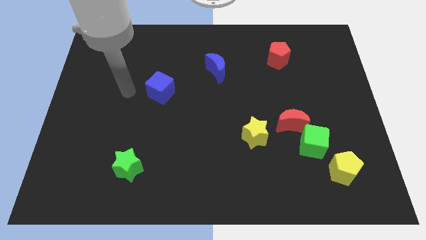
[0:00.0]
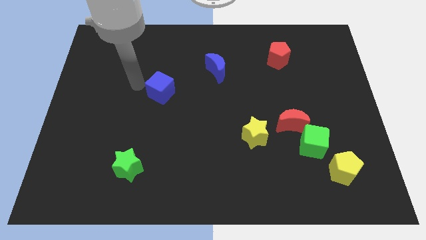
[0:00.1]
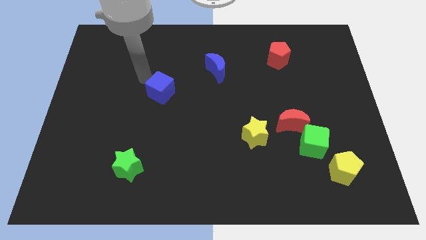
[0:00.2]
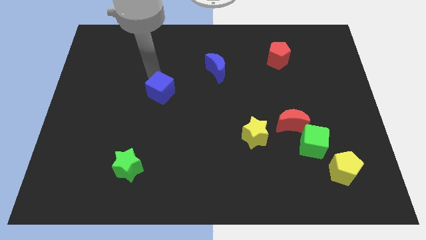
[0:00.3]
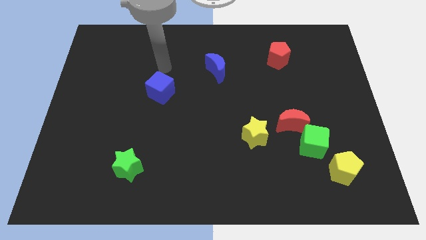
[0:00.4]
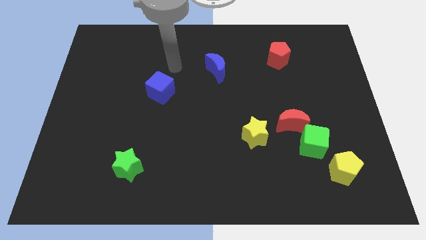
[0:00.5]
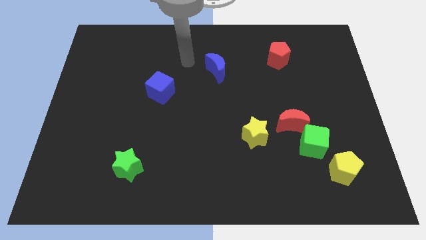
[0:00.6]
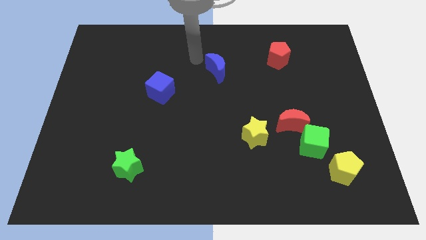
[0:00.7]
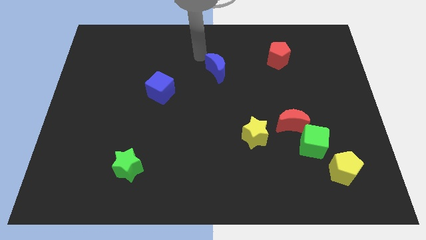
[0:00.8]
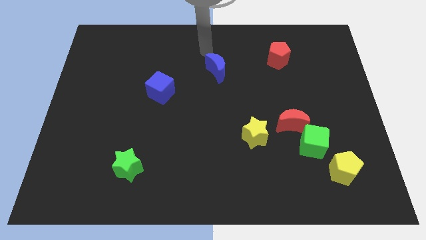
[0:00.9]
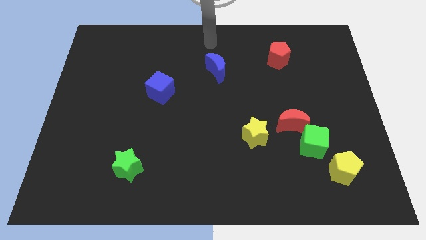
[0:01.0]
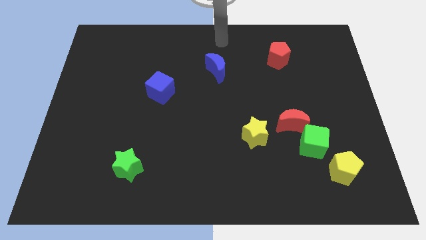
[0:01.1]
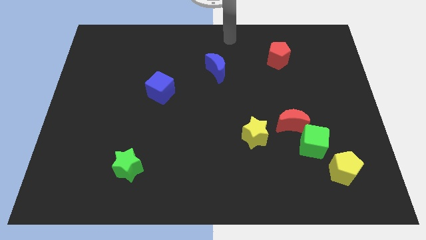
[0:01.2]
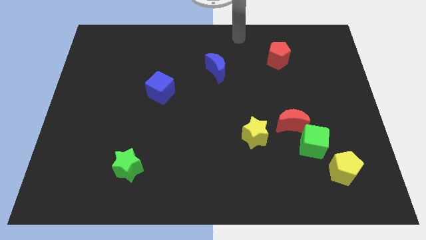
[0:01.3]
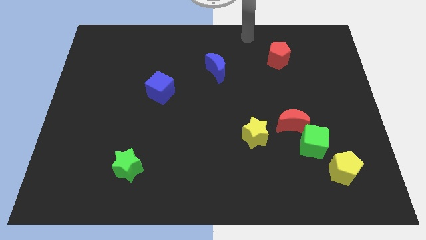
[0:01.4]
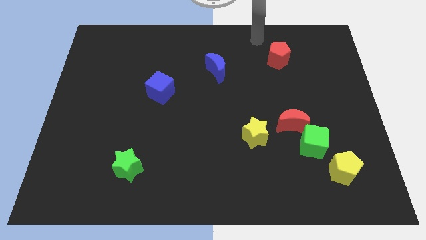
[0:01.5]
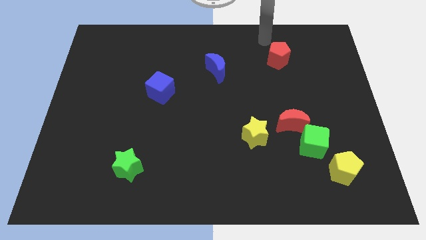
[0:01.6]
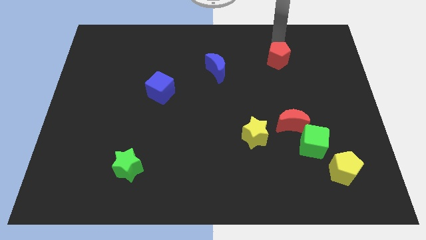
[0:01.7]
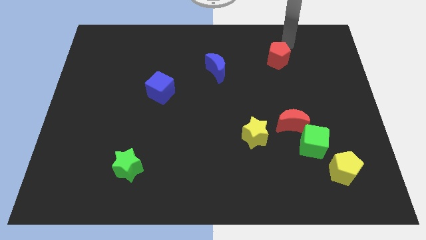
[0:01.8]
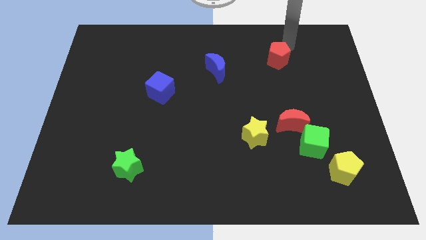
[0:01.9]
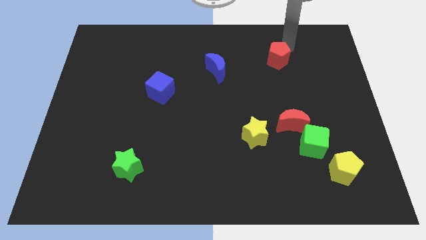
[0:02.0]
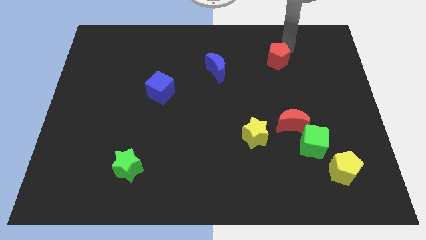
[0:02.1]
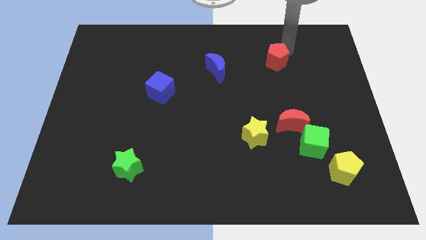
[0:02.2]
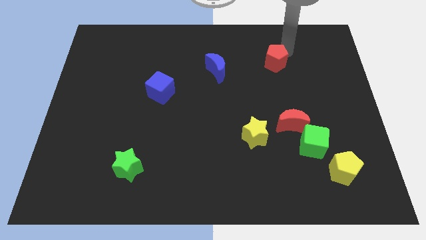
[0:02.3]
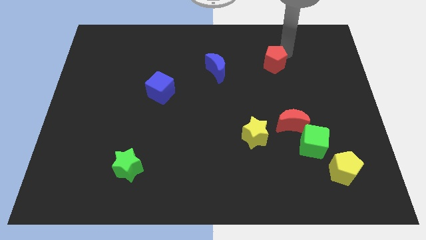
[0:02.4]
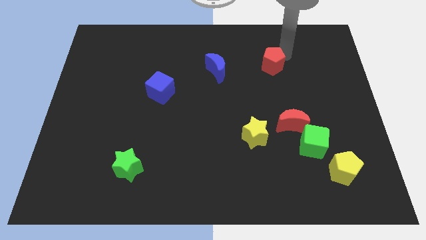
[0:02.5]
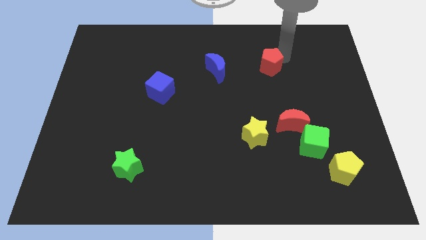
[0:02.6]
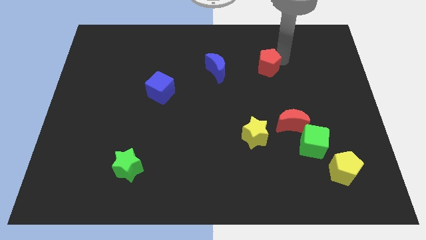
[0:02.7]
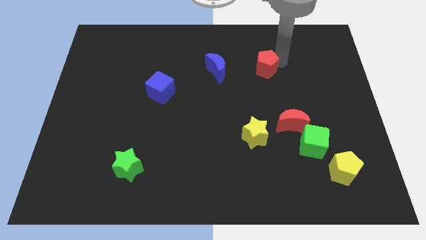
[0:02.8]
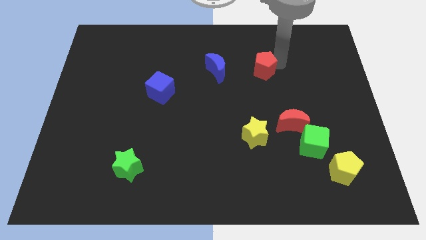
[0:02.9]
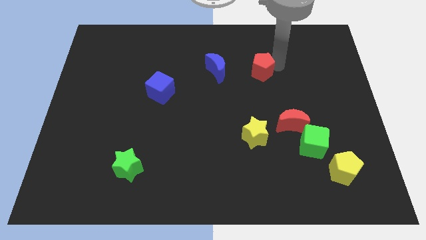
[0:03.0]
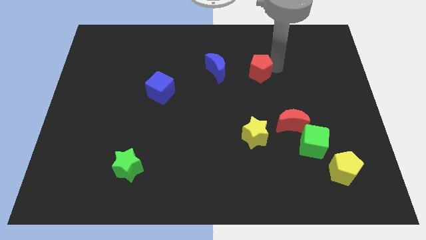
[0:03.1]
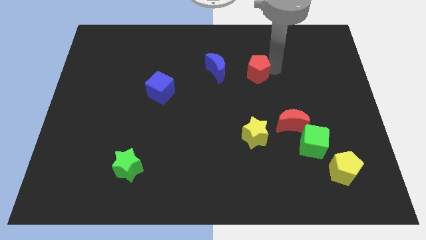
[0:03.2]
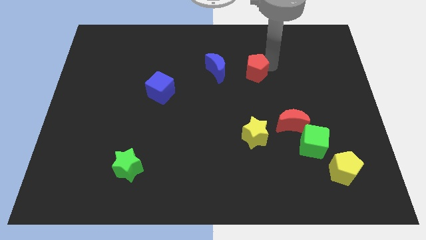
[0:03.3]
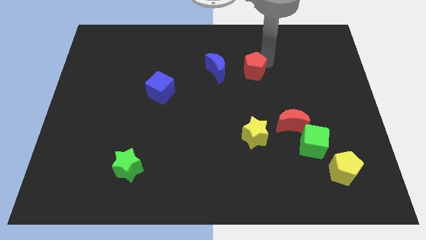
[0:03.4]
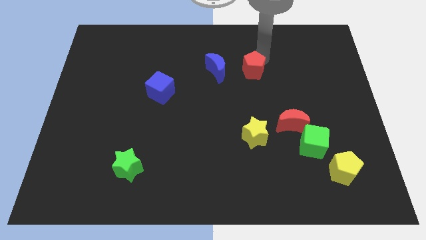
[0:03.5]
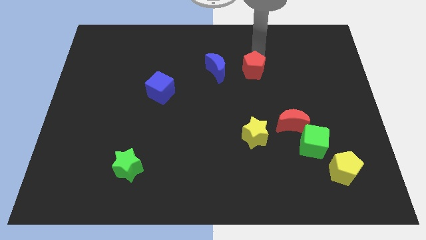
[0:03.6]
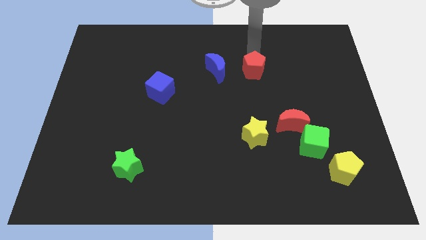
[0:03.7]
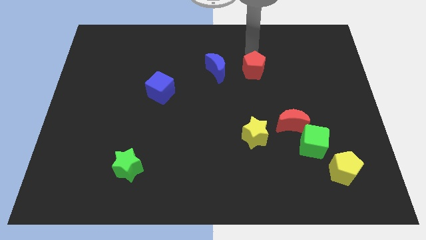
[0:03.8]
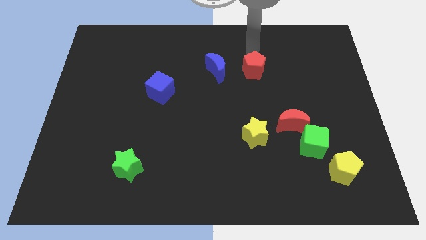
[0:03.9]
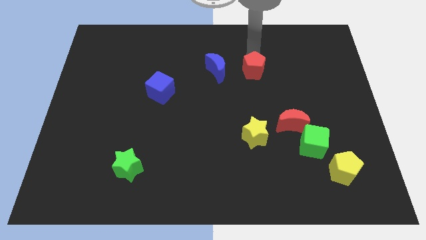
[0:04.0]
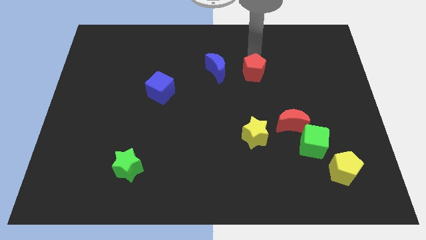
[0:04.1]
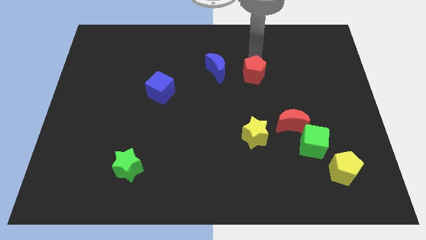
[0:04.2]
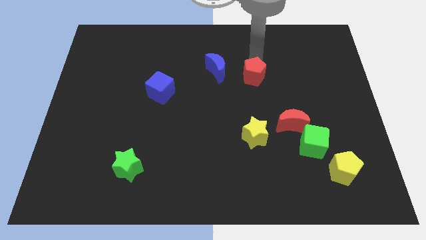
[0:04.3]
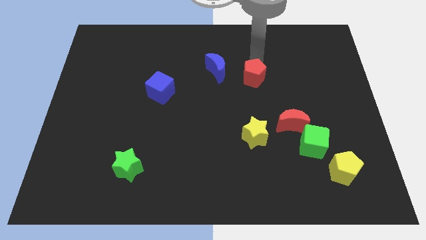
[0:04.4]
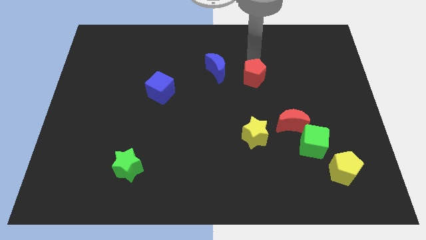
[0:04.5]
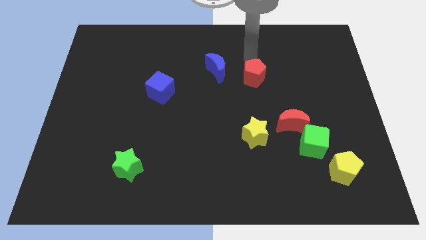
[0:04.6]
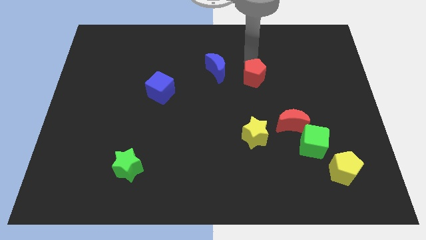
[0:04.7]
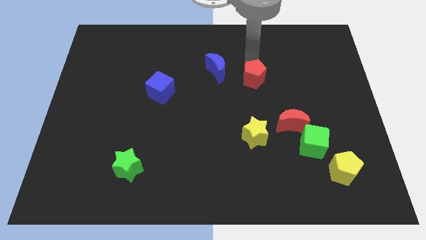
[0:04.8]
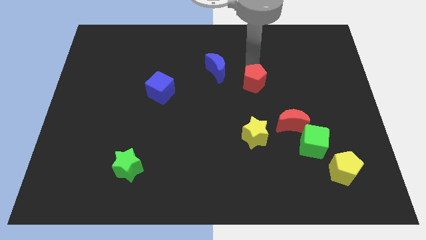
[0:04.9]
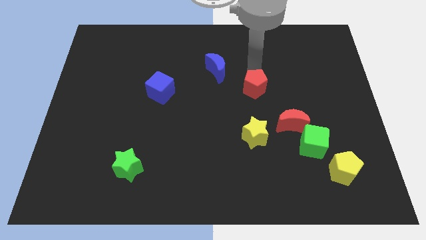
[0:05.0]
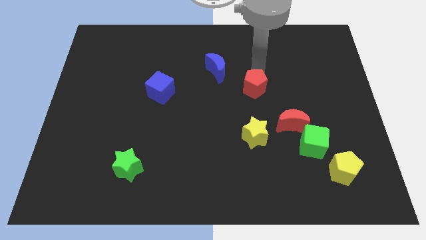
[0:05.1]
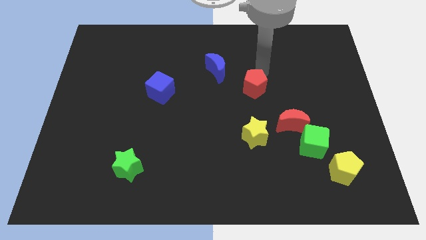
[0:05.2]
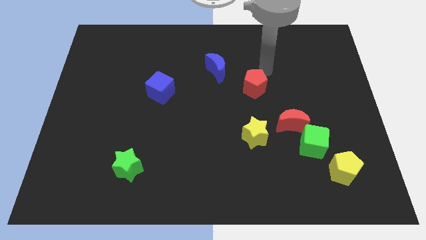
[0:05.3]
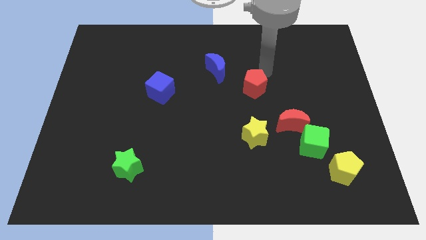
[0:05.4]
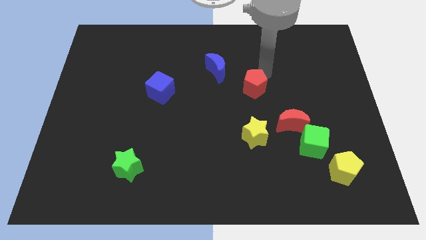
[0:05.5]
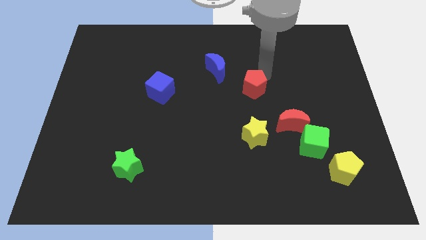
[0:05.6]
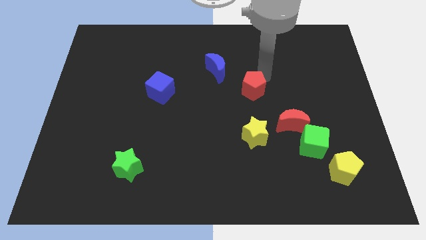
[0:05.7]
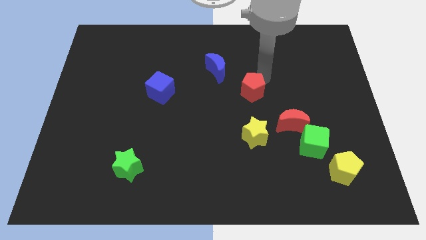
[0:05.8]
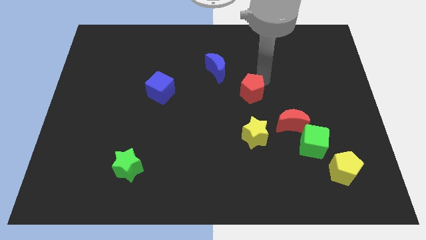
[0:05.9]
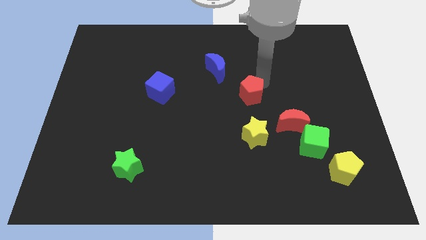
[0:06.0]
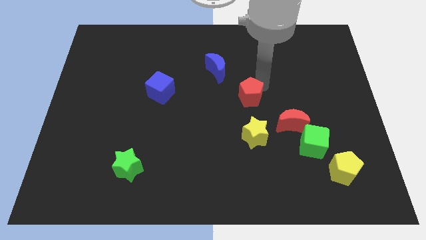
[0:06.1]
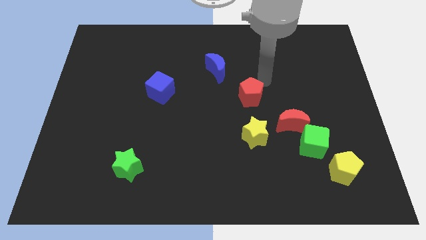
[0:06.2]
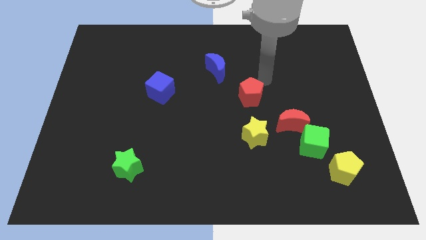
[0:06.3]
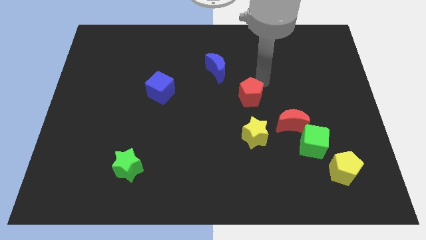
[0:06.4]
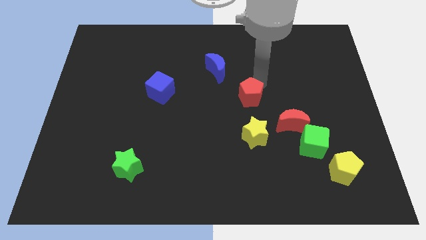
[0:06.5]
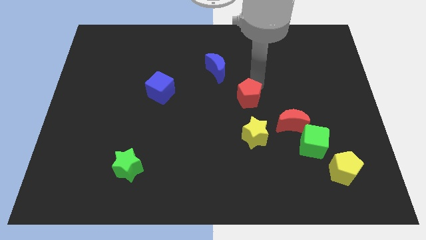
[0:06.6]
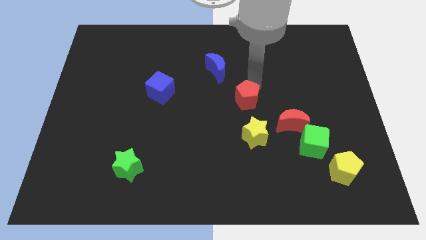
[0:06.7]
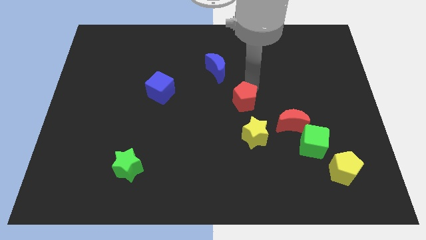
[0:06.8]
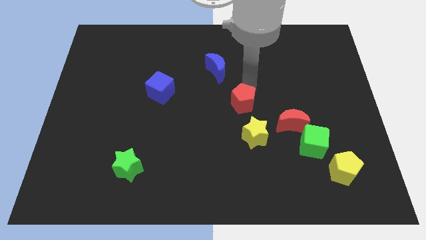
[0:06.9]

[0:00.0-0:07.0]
move the red pentagon to the top left side of the yellow star
